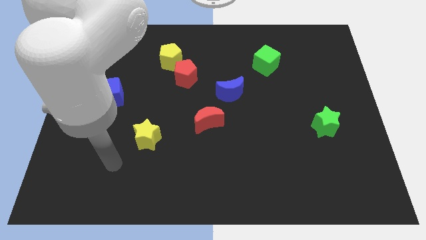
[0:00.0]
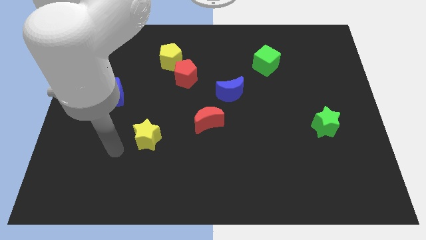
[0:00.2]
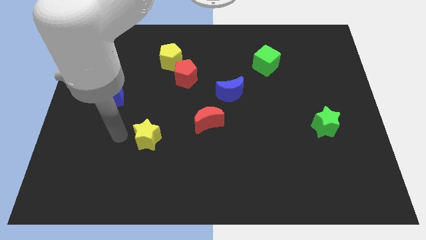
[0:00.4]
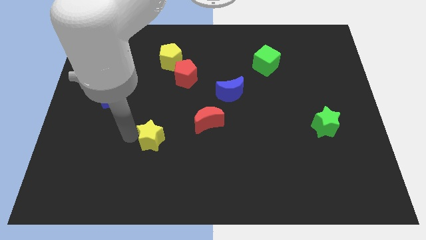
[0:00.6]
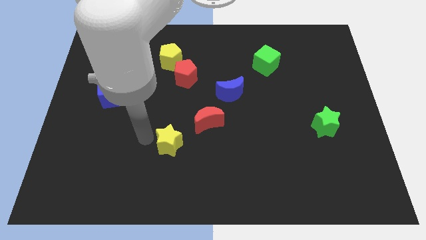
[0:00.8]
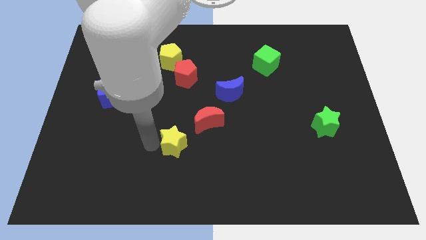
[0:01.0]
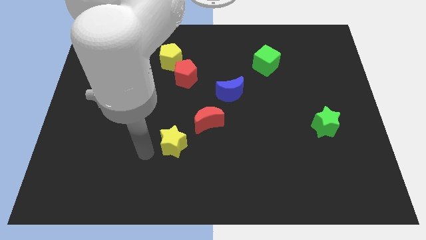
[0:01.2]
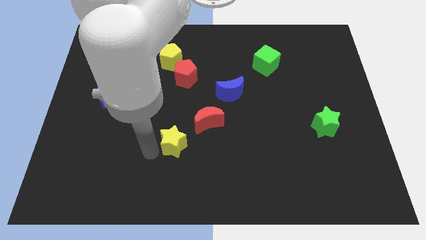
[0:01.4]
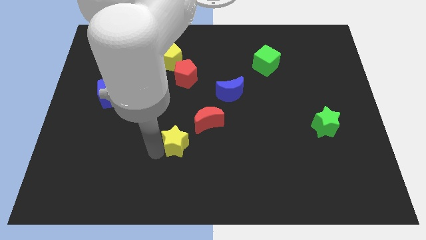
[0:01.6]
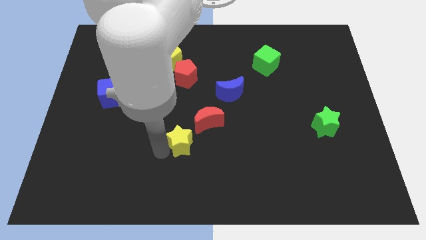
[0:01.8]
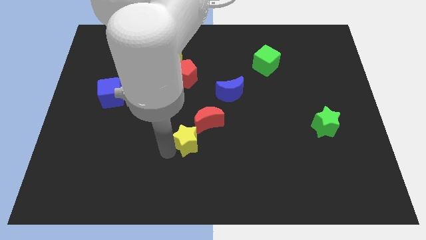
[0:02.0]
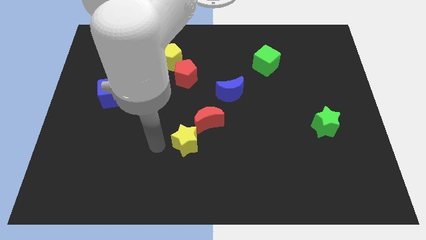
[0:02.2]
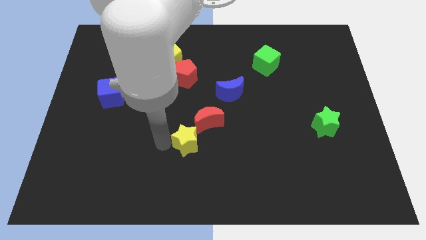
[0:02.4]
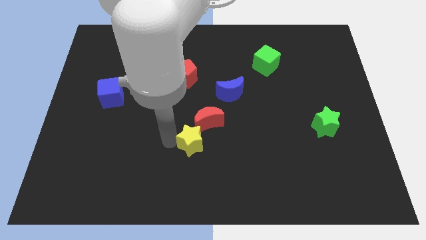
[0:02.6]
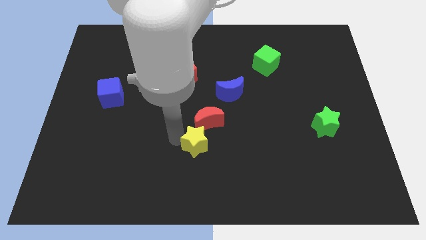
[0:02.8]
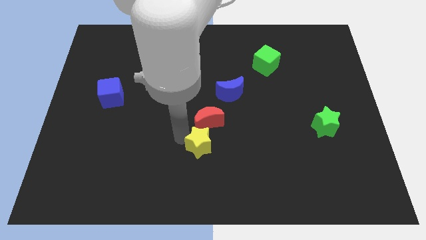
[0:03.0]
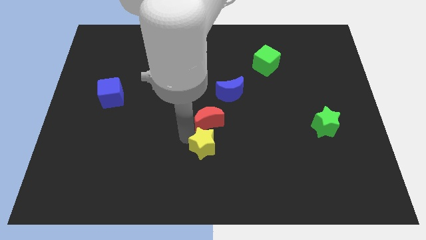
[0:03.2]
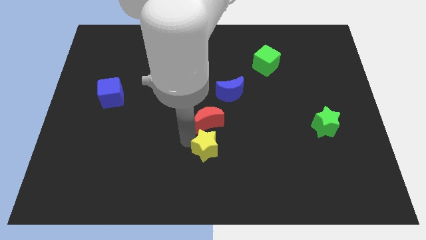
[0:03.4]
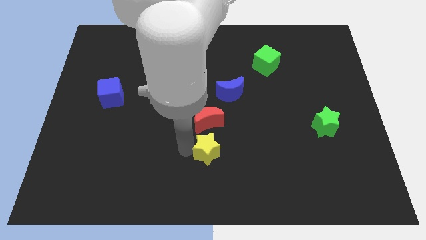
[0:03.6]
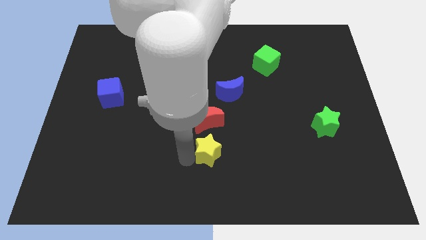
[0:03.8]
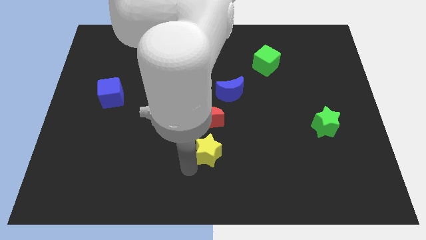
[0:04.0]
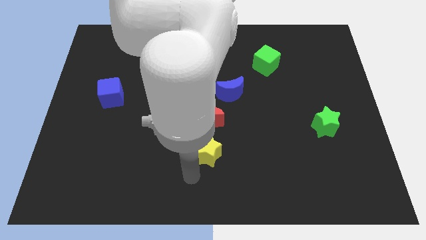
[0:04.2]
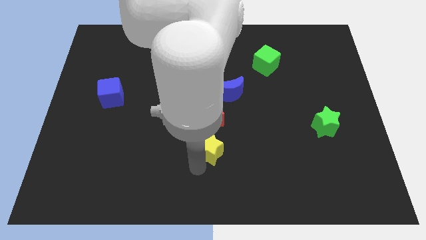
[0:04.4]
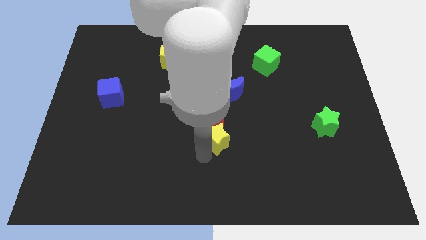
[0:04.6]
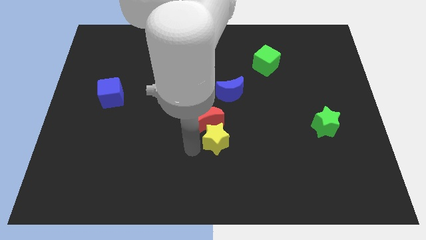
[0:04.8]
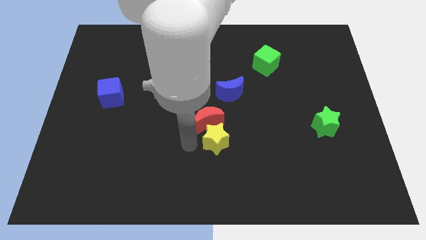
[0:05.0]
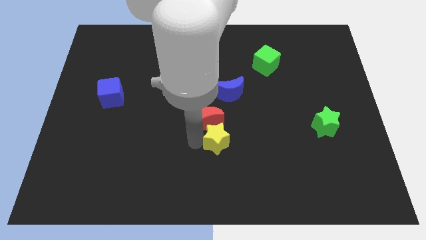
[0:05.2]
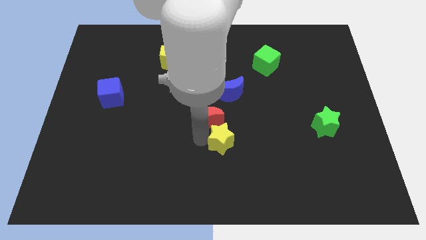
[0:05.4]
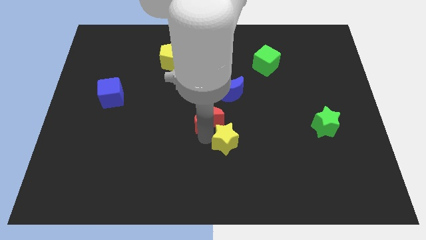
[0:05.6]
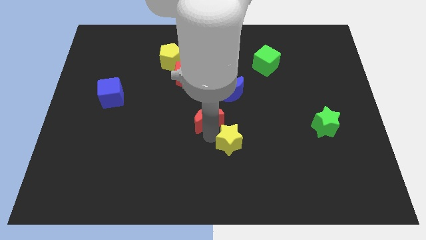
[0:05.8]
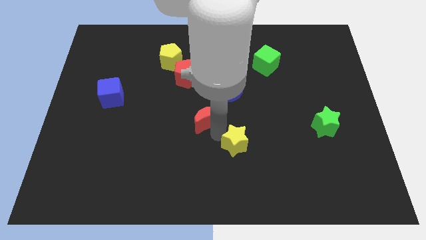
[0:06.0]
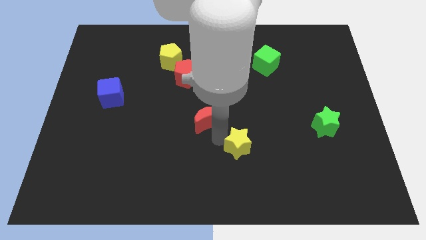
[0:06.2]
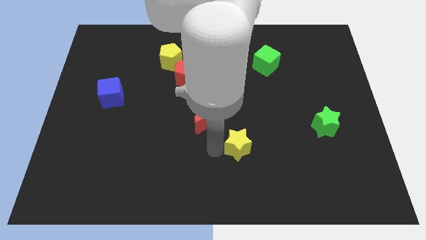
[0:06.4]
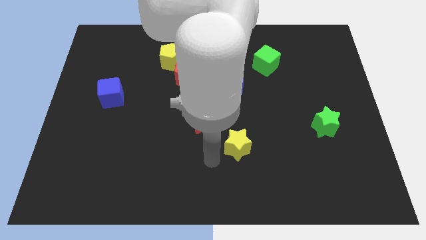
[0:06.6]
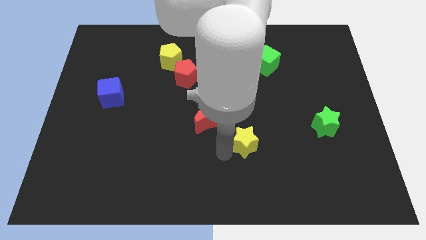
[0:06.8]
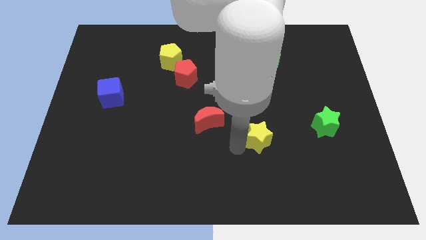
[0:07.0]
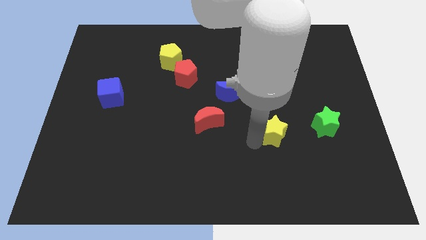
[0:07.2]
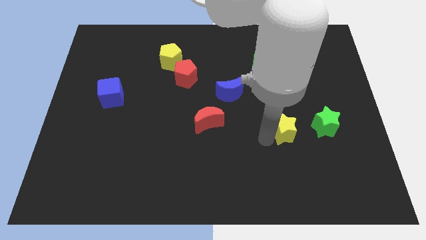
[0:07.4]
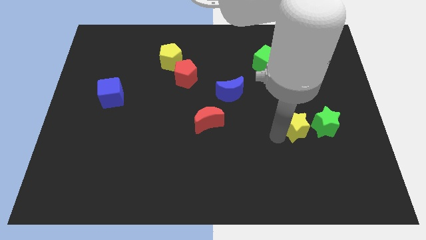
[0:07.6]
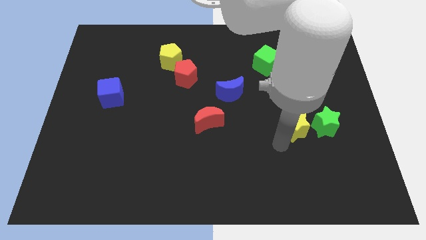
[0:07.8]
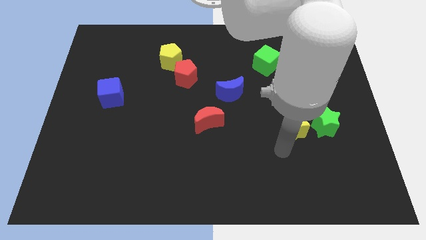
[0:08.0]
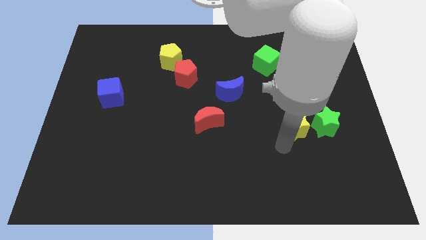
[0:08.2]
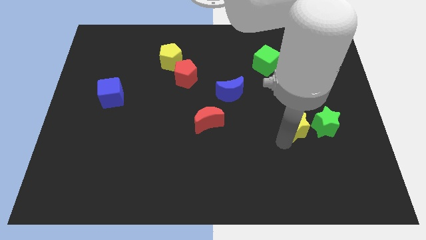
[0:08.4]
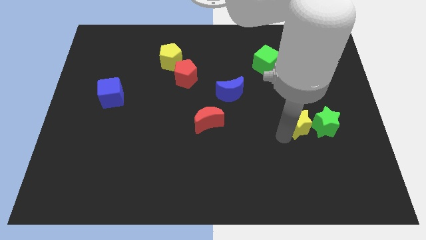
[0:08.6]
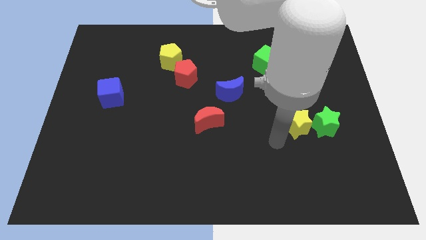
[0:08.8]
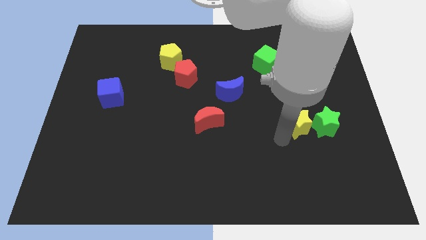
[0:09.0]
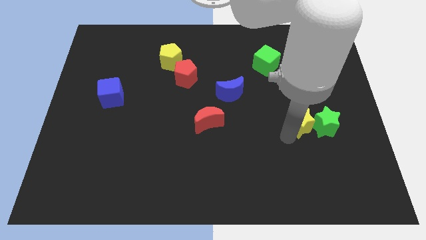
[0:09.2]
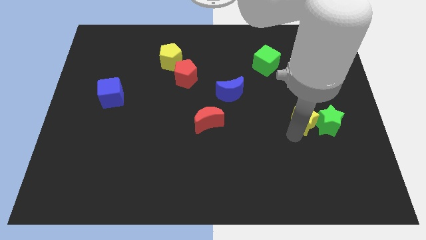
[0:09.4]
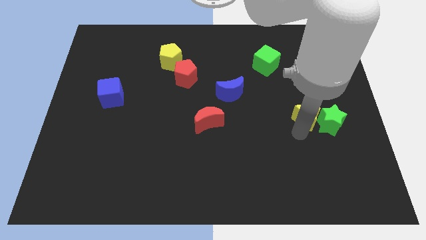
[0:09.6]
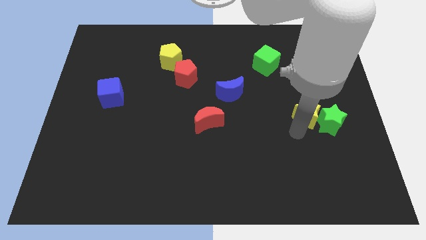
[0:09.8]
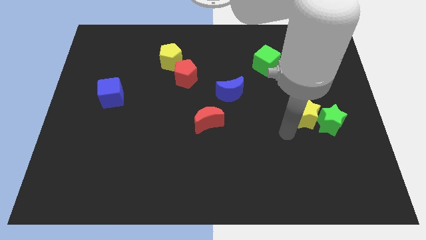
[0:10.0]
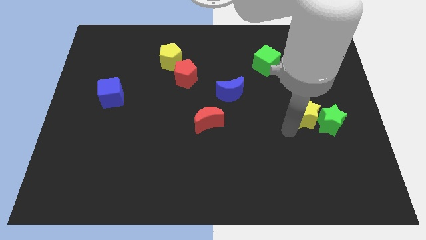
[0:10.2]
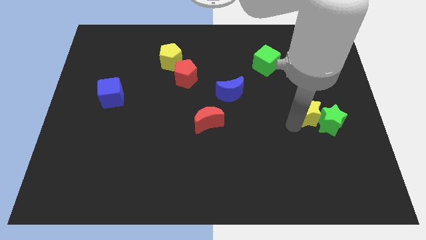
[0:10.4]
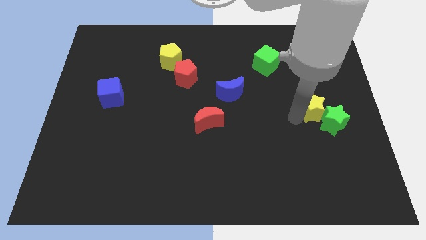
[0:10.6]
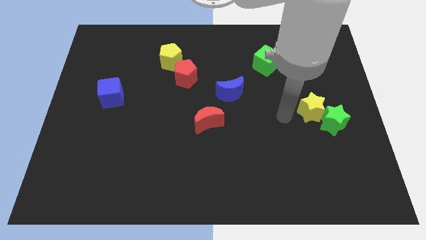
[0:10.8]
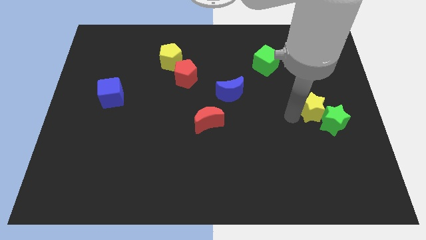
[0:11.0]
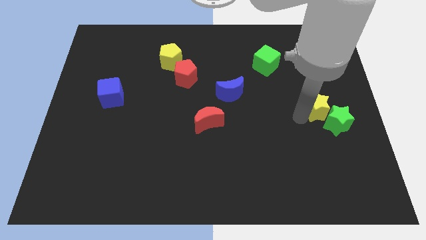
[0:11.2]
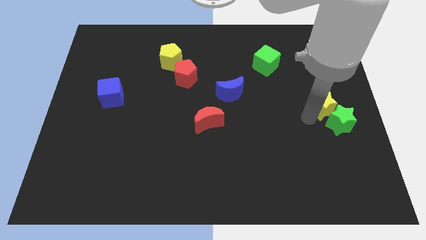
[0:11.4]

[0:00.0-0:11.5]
slide the yellow star to the right side of the board

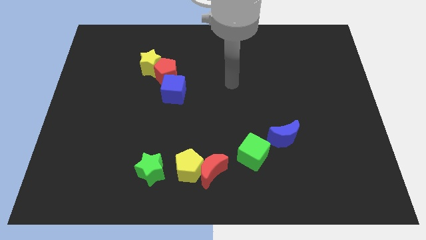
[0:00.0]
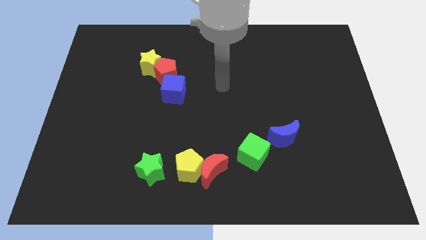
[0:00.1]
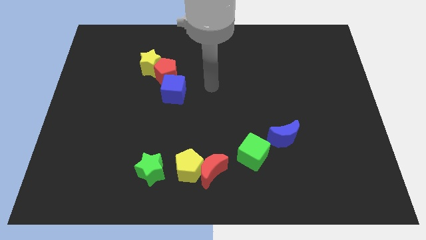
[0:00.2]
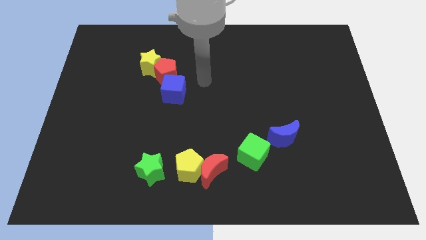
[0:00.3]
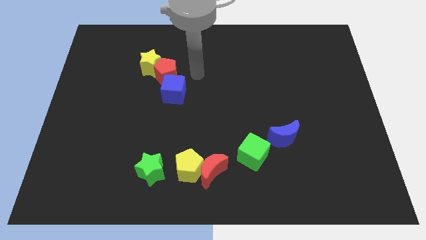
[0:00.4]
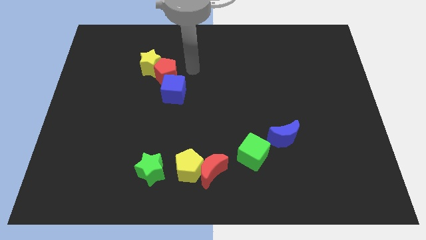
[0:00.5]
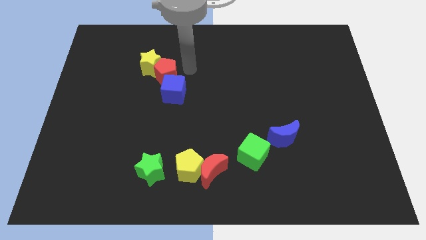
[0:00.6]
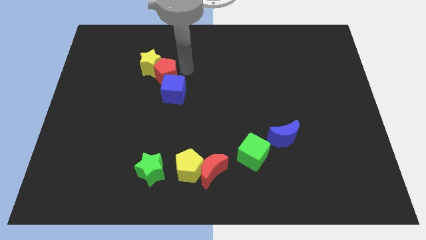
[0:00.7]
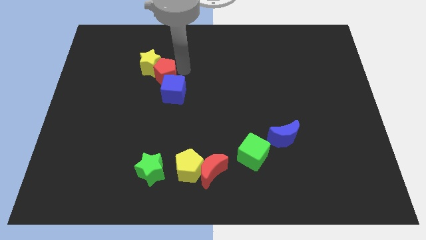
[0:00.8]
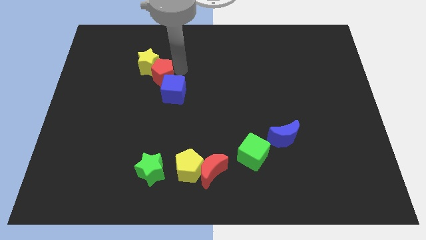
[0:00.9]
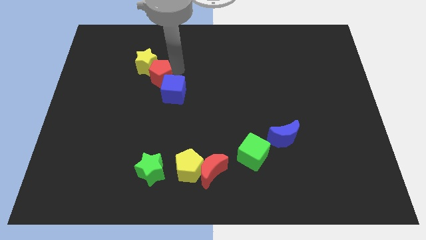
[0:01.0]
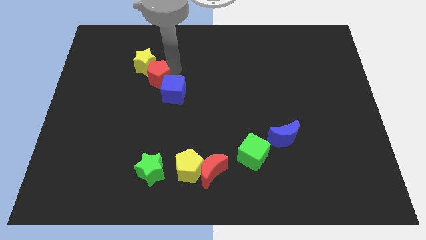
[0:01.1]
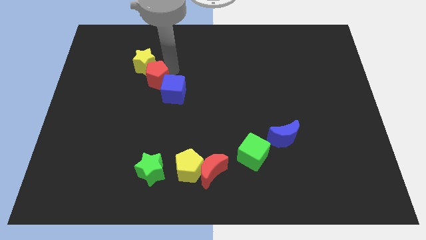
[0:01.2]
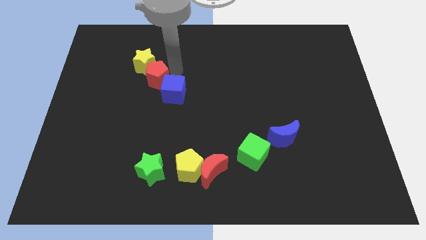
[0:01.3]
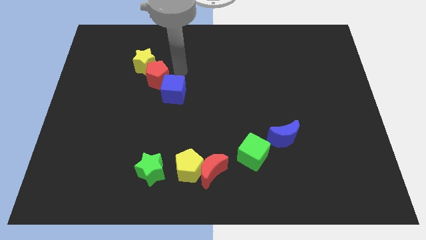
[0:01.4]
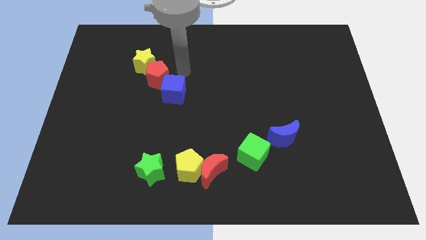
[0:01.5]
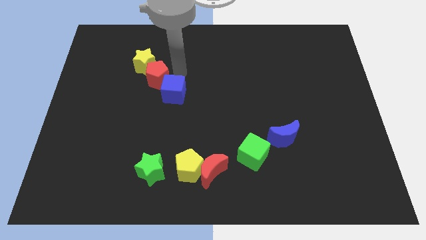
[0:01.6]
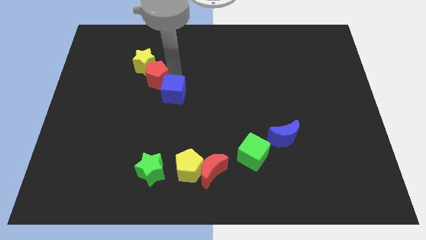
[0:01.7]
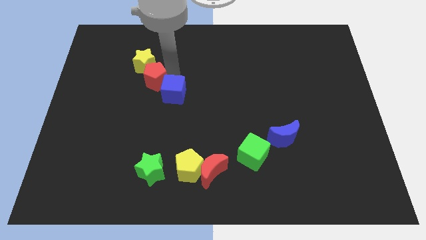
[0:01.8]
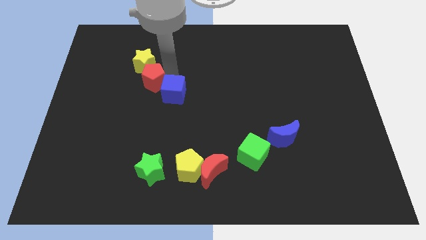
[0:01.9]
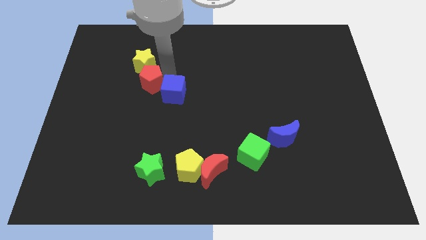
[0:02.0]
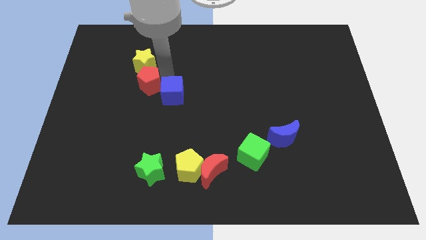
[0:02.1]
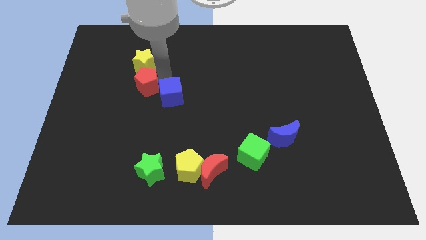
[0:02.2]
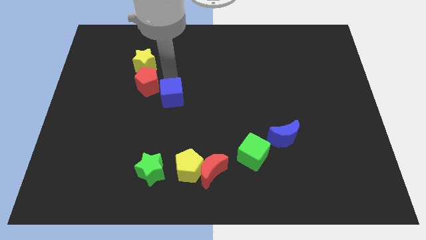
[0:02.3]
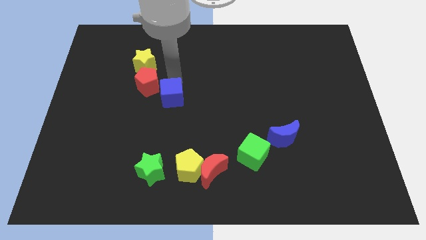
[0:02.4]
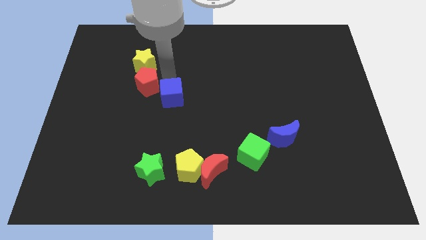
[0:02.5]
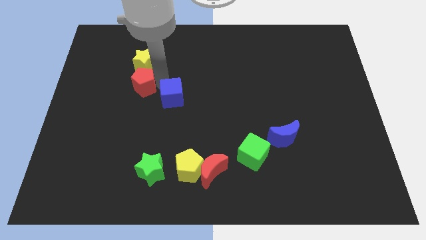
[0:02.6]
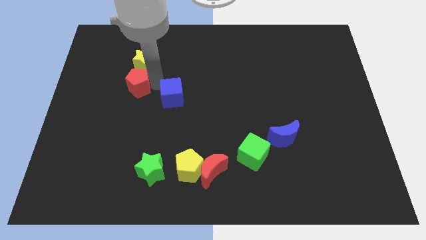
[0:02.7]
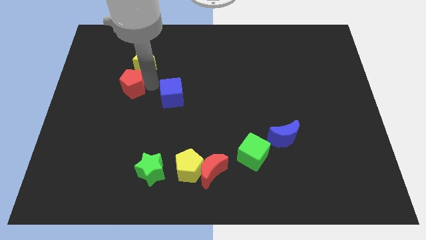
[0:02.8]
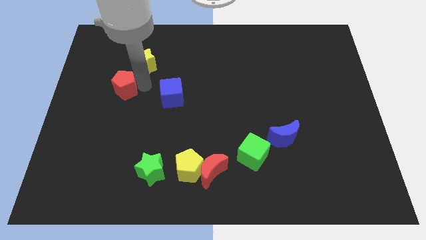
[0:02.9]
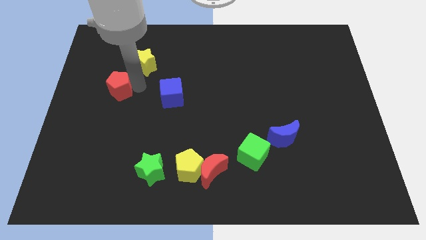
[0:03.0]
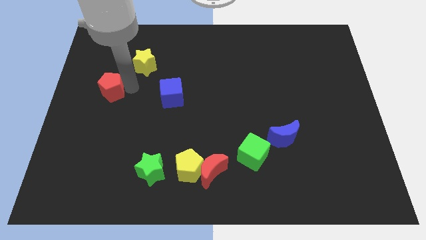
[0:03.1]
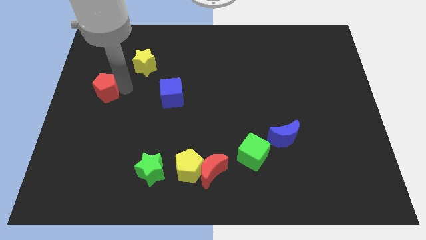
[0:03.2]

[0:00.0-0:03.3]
slide the red pentagon to the left side
